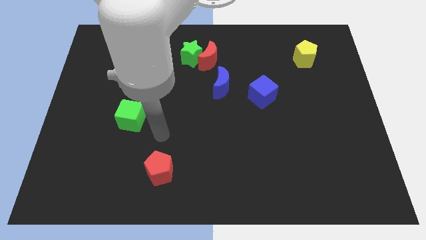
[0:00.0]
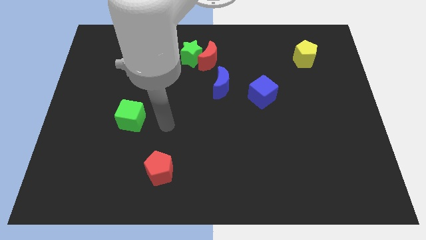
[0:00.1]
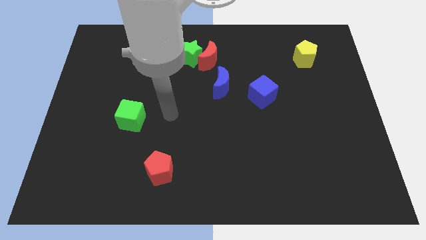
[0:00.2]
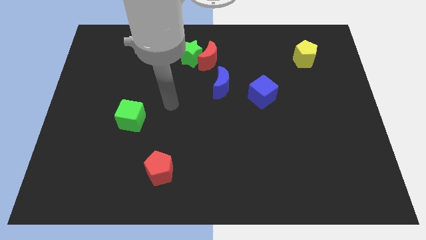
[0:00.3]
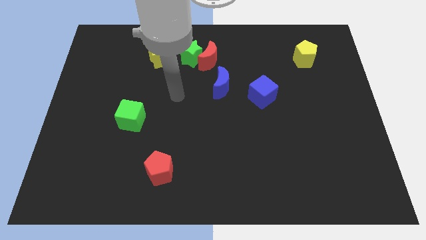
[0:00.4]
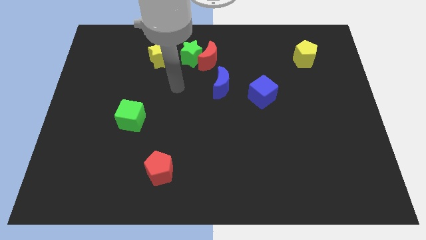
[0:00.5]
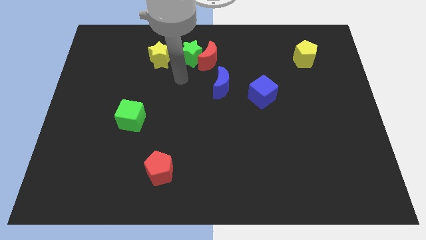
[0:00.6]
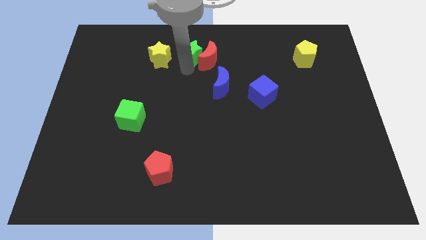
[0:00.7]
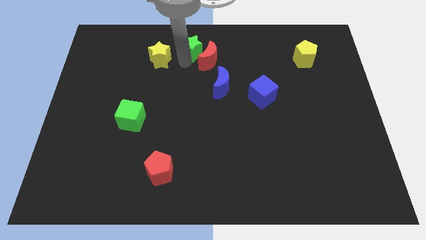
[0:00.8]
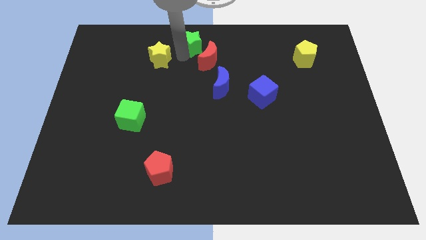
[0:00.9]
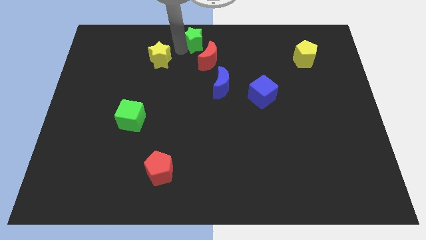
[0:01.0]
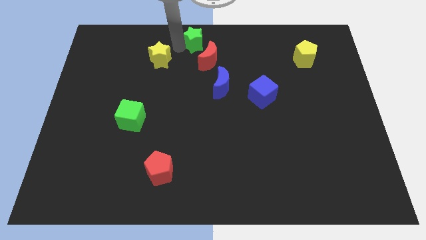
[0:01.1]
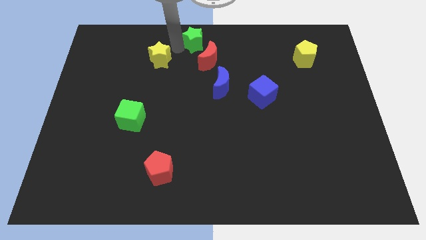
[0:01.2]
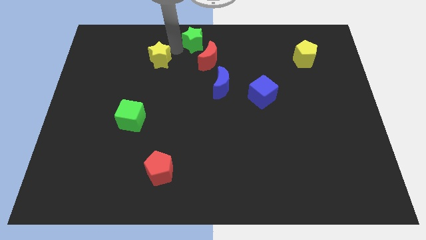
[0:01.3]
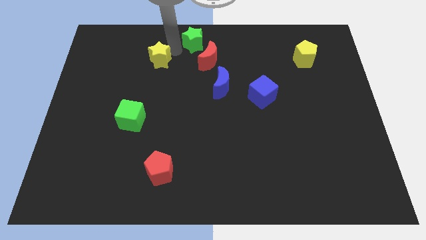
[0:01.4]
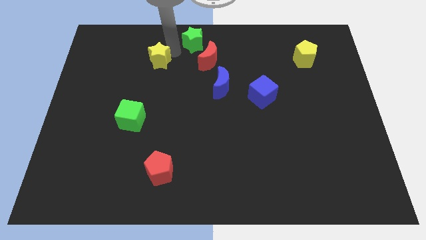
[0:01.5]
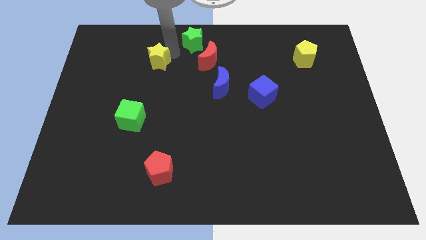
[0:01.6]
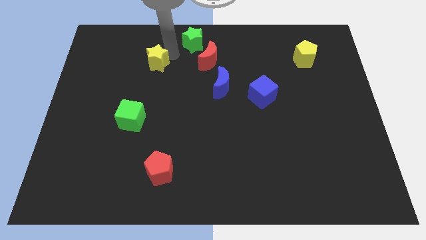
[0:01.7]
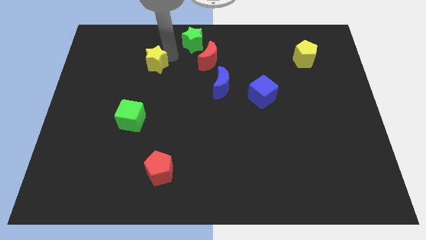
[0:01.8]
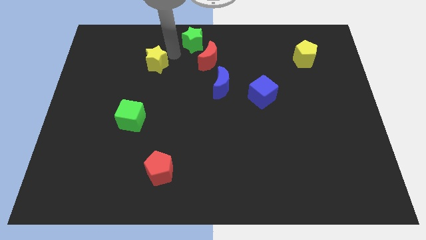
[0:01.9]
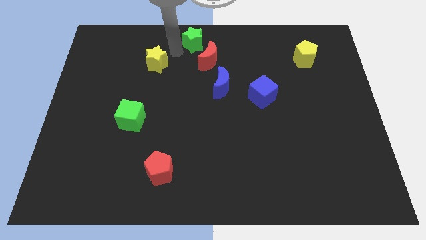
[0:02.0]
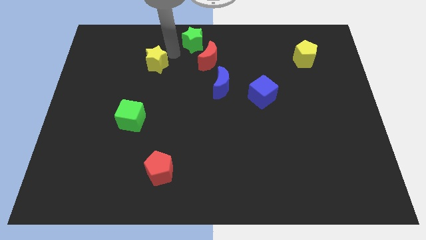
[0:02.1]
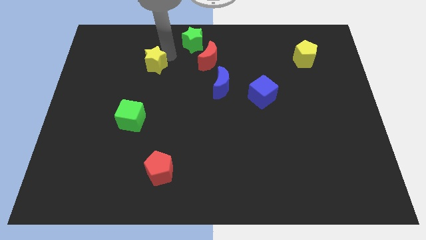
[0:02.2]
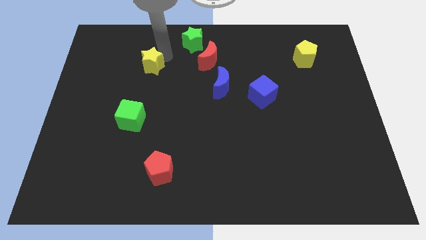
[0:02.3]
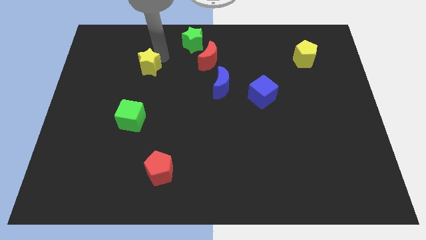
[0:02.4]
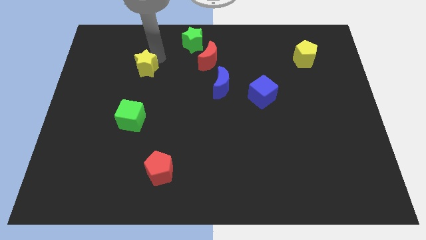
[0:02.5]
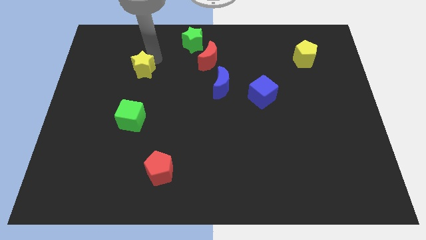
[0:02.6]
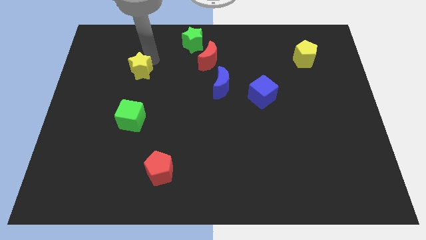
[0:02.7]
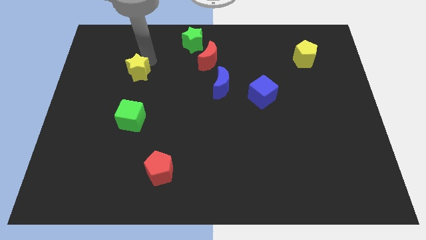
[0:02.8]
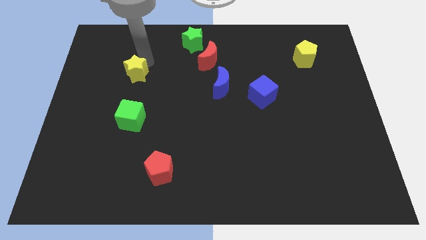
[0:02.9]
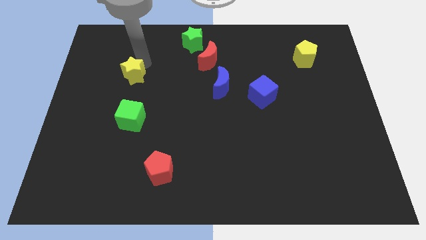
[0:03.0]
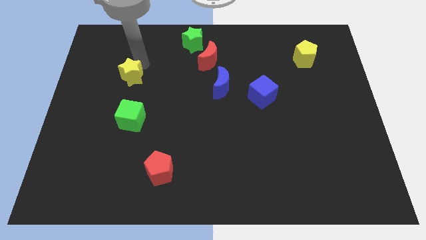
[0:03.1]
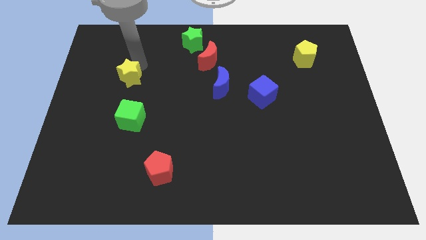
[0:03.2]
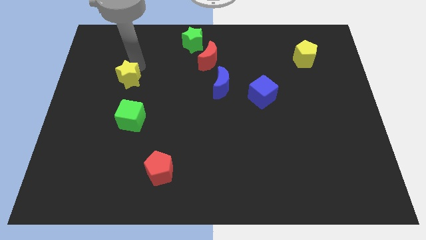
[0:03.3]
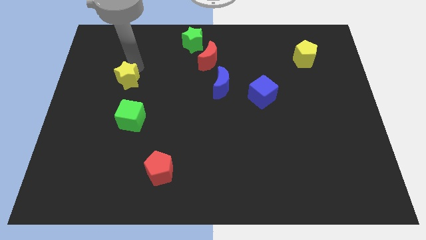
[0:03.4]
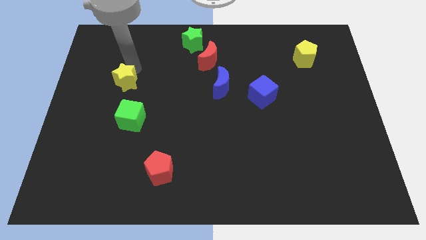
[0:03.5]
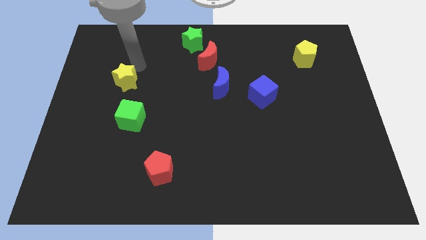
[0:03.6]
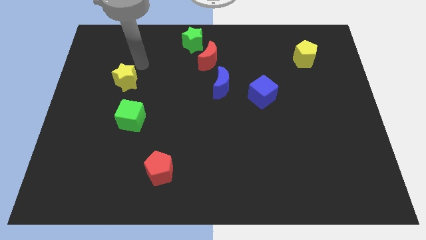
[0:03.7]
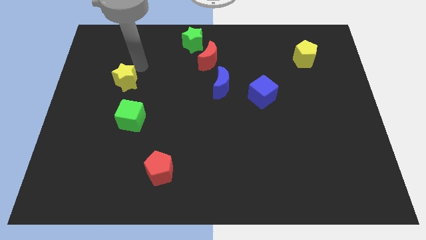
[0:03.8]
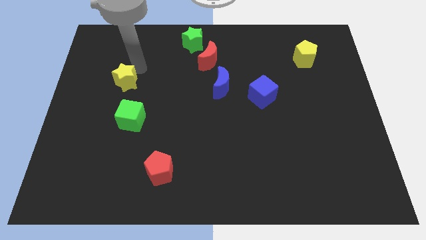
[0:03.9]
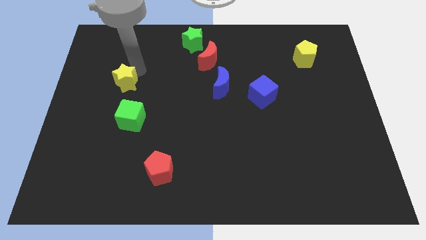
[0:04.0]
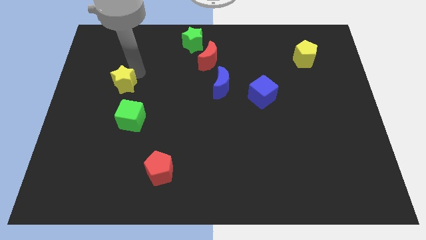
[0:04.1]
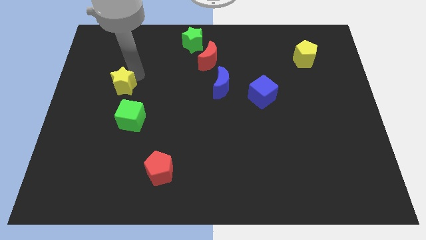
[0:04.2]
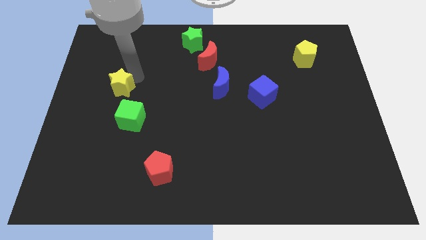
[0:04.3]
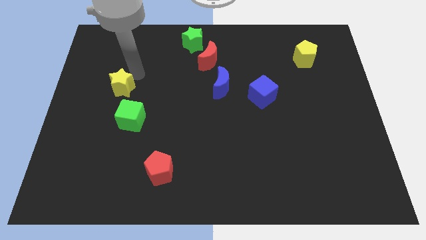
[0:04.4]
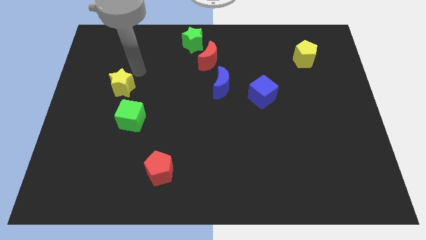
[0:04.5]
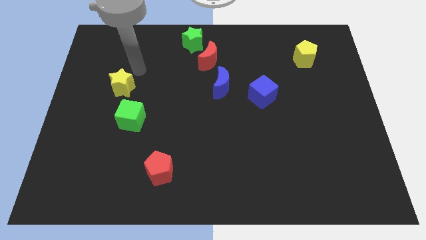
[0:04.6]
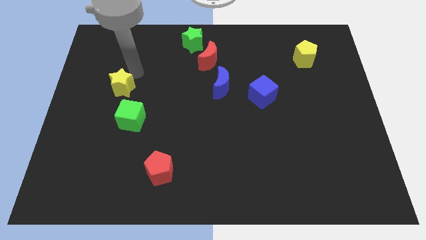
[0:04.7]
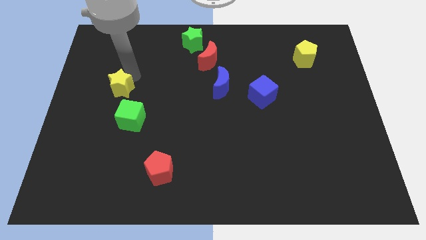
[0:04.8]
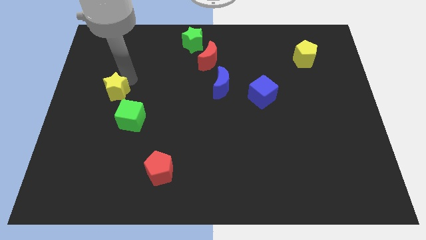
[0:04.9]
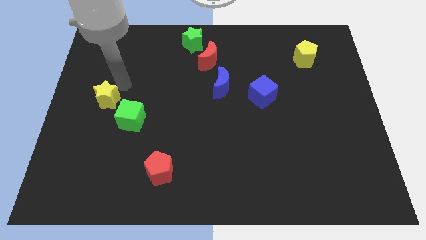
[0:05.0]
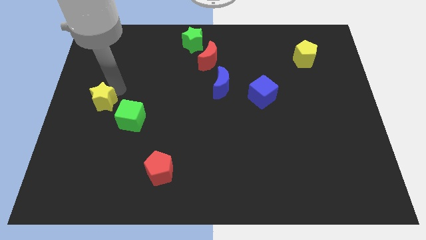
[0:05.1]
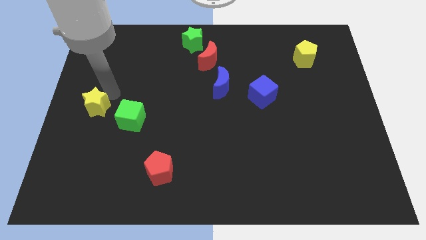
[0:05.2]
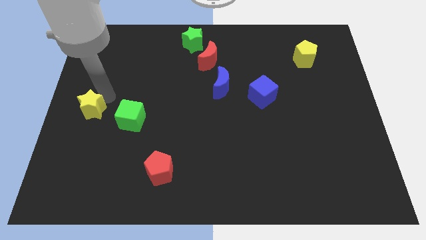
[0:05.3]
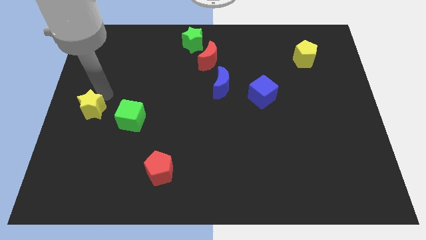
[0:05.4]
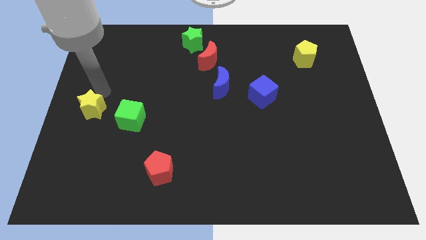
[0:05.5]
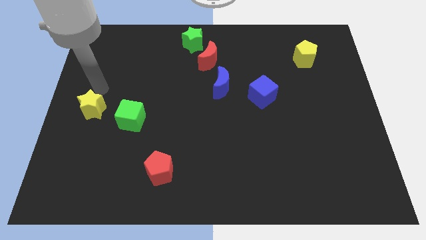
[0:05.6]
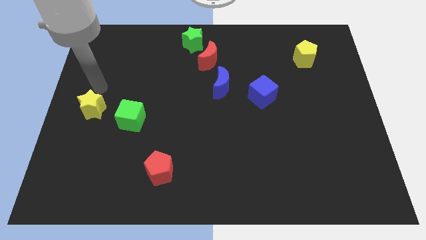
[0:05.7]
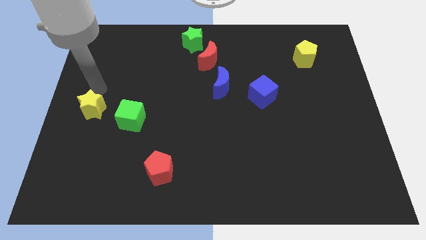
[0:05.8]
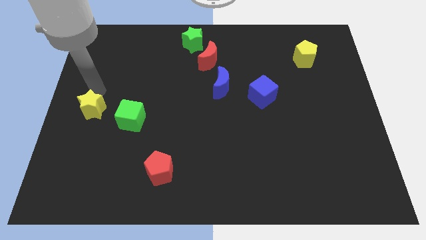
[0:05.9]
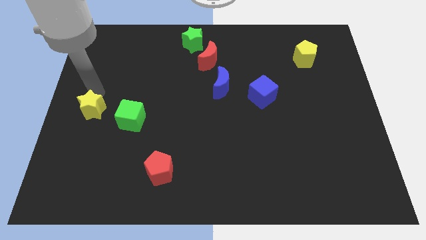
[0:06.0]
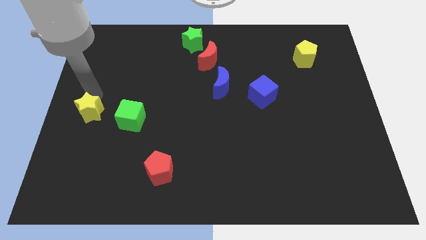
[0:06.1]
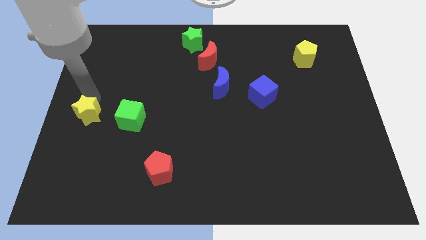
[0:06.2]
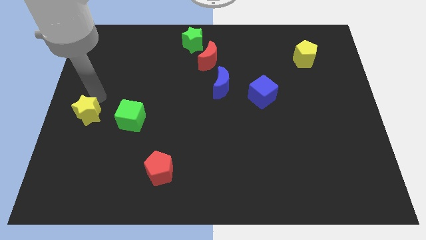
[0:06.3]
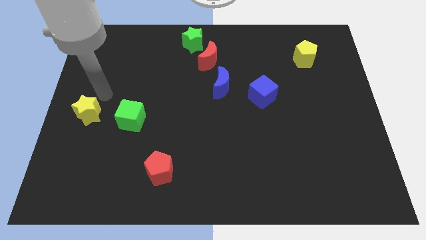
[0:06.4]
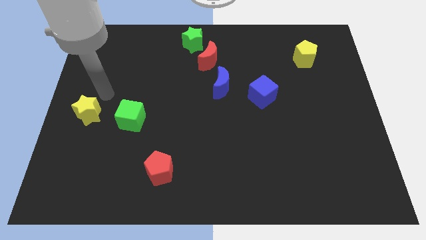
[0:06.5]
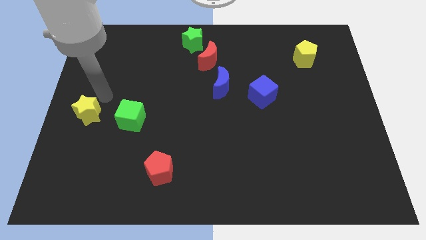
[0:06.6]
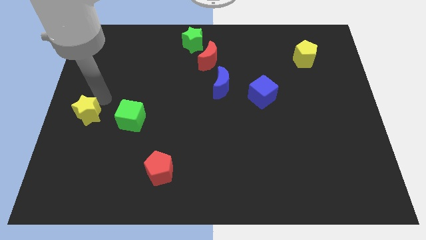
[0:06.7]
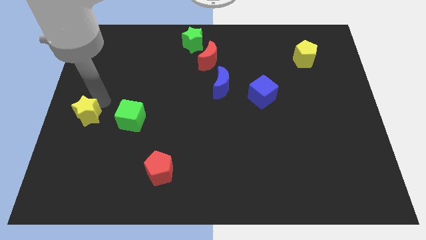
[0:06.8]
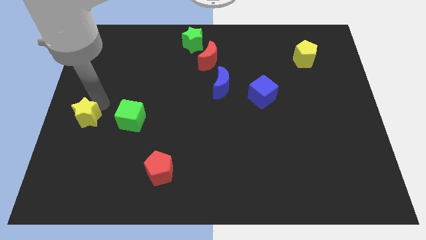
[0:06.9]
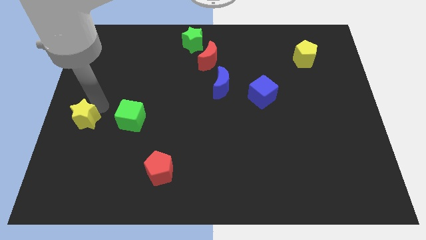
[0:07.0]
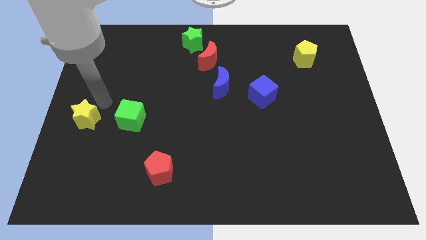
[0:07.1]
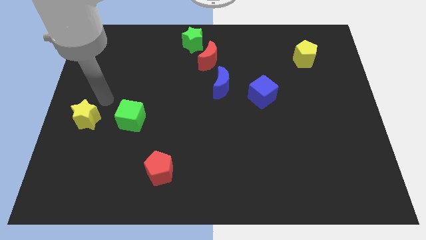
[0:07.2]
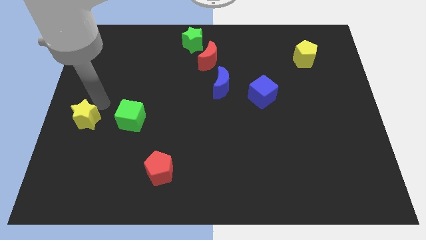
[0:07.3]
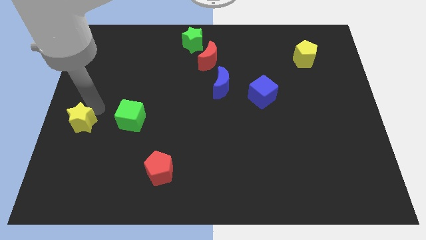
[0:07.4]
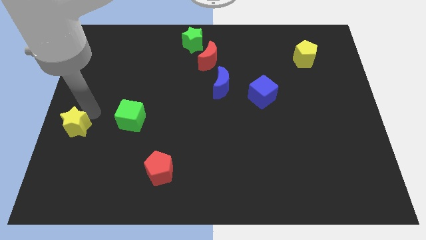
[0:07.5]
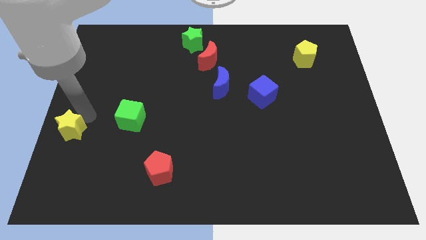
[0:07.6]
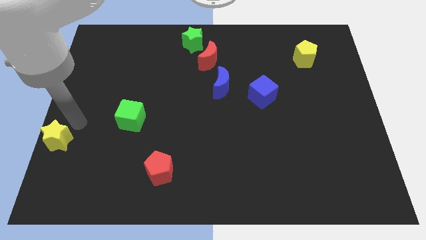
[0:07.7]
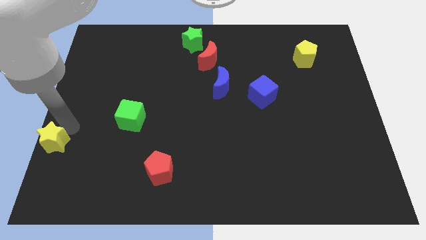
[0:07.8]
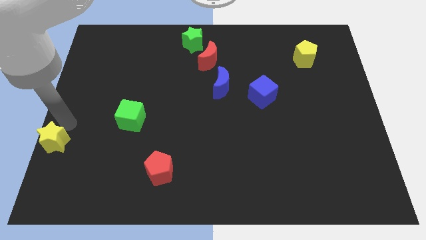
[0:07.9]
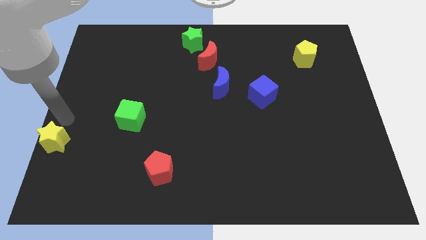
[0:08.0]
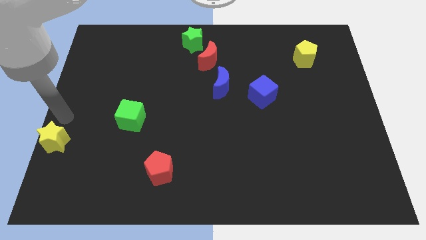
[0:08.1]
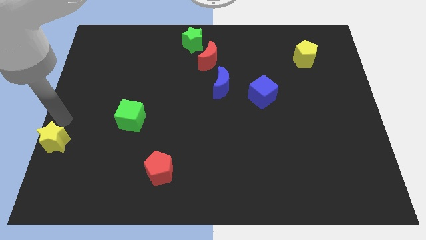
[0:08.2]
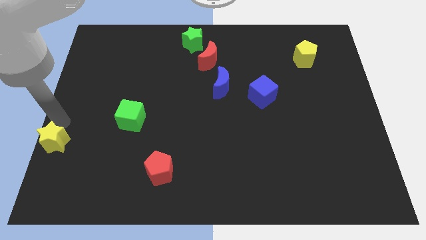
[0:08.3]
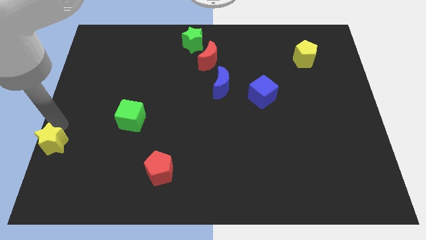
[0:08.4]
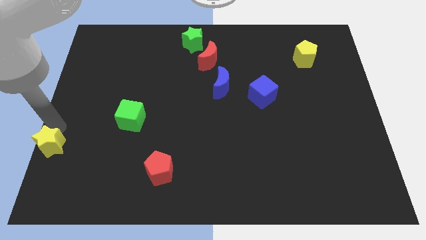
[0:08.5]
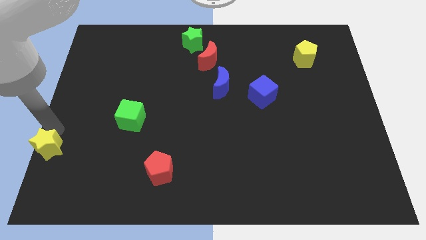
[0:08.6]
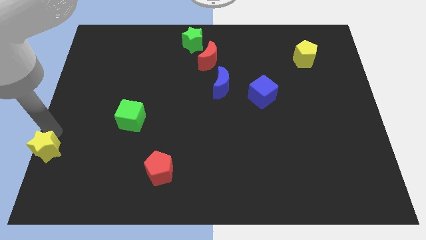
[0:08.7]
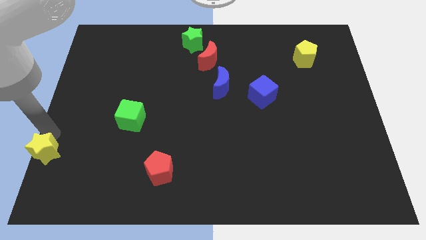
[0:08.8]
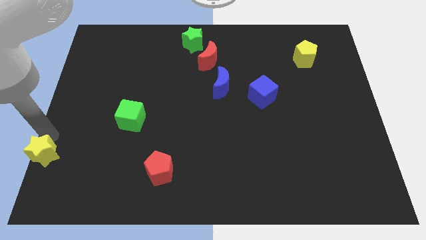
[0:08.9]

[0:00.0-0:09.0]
move the yellow star to the lower left corner
